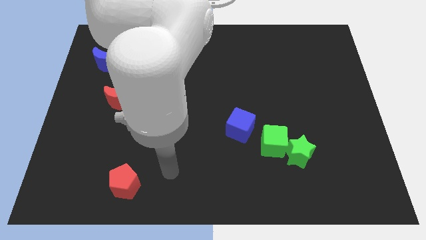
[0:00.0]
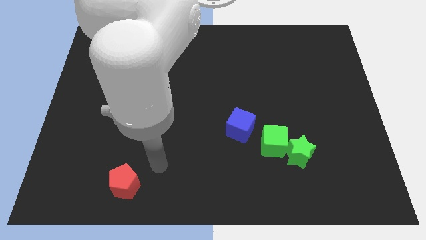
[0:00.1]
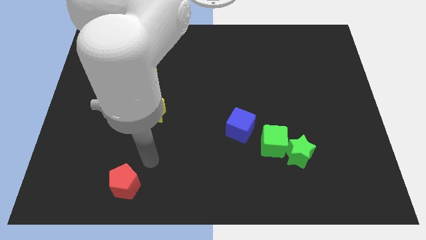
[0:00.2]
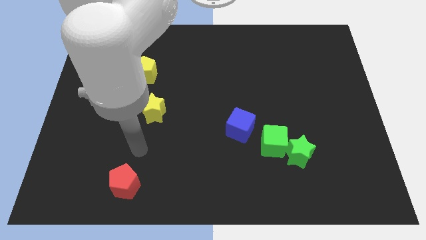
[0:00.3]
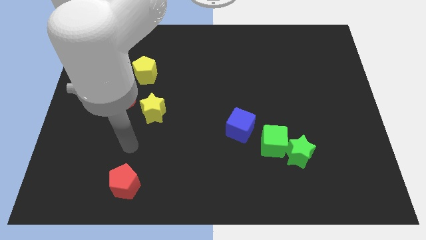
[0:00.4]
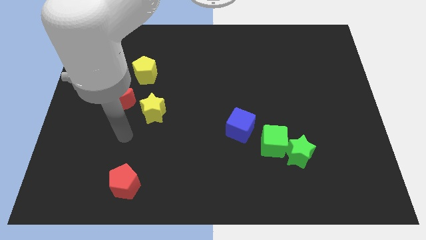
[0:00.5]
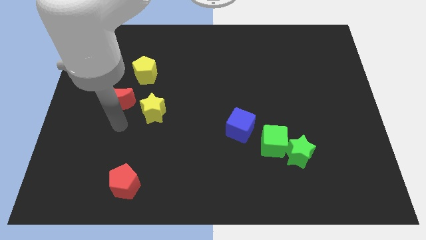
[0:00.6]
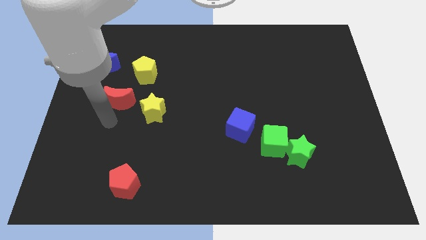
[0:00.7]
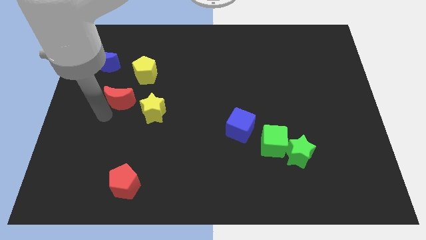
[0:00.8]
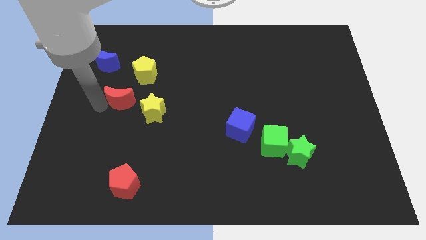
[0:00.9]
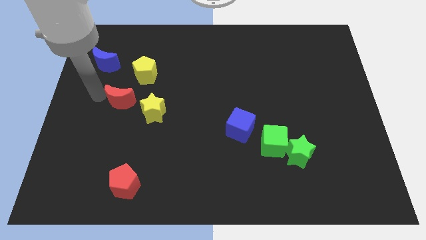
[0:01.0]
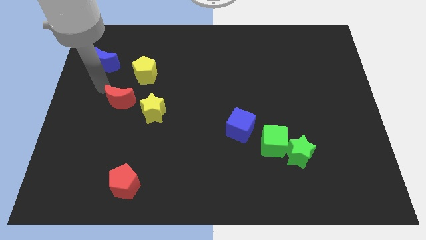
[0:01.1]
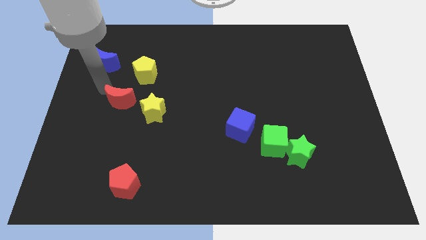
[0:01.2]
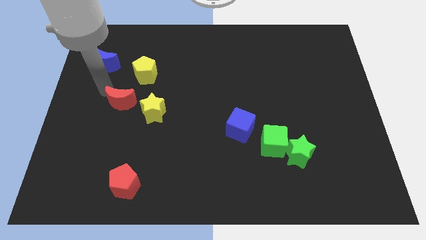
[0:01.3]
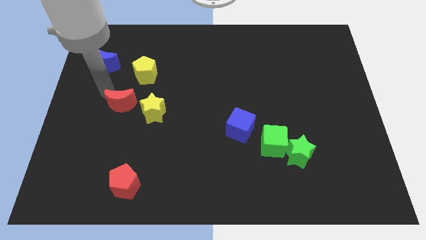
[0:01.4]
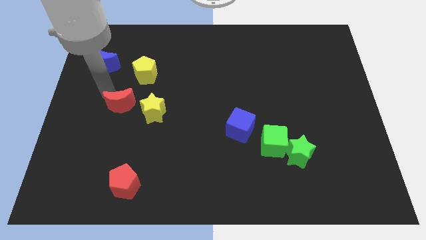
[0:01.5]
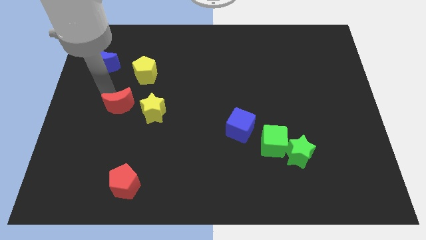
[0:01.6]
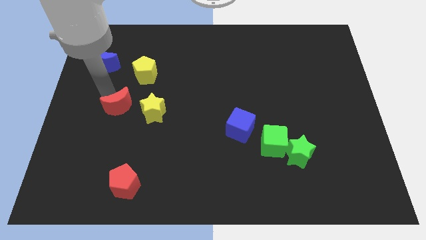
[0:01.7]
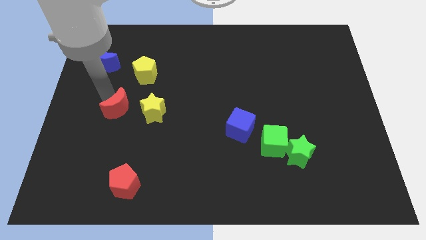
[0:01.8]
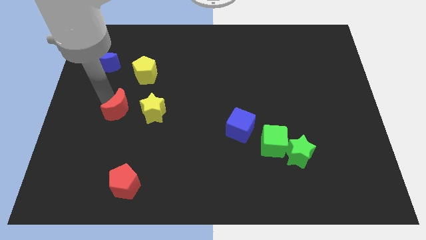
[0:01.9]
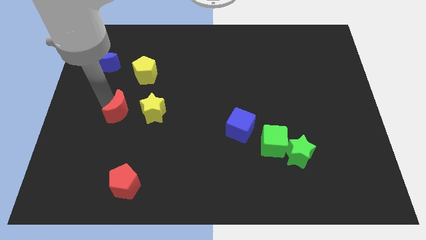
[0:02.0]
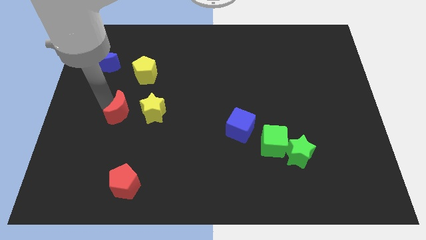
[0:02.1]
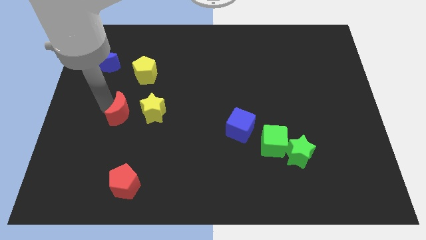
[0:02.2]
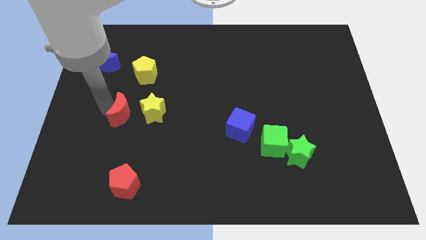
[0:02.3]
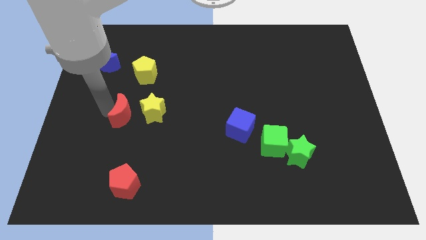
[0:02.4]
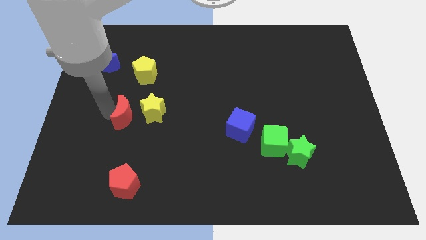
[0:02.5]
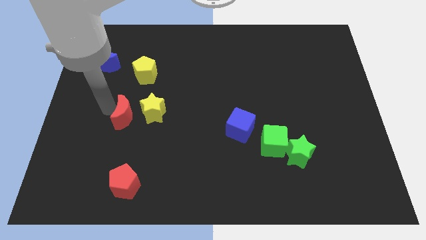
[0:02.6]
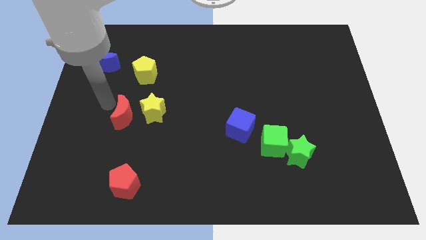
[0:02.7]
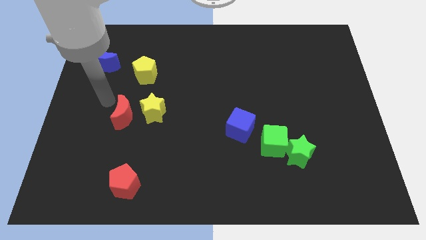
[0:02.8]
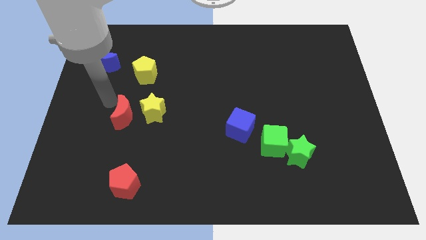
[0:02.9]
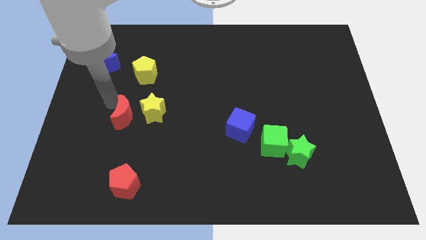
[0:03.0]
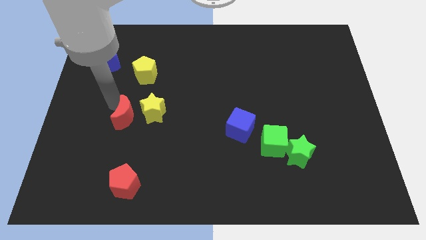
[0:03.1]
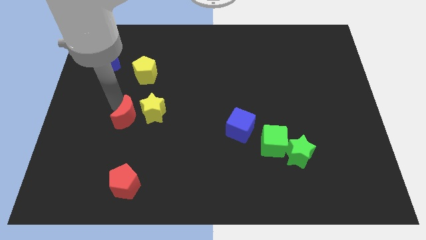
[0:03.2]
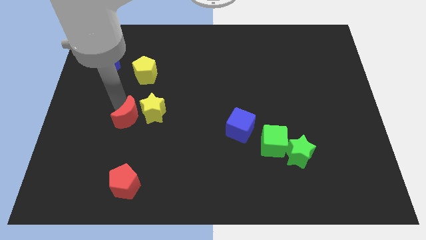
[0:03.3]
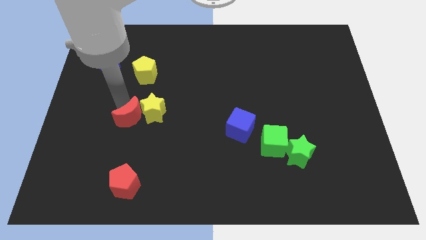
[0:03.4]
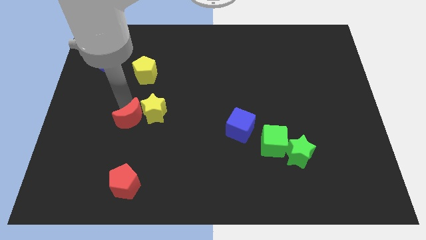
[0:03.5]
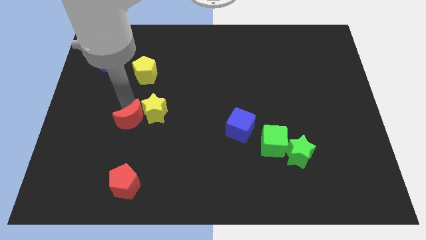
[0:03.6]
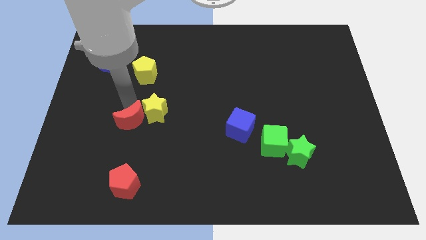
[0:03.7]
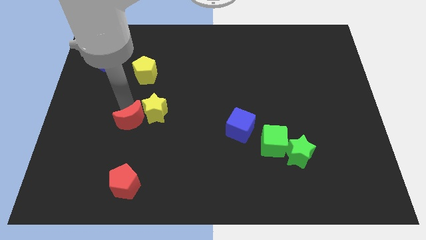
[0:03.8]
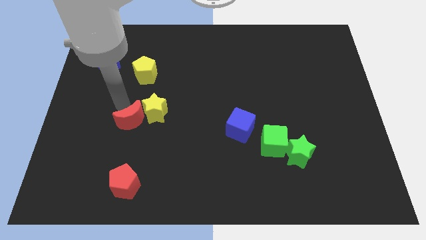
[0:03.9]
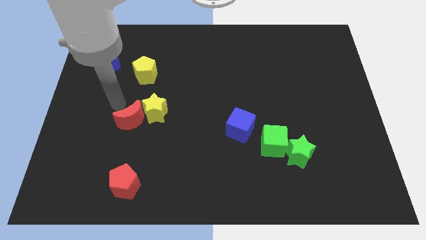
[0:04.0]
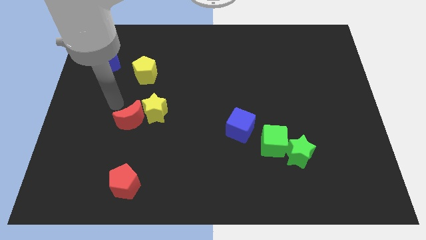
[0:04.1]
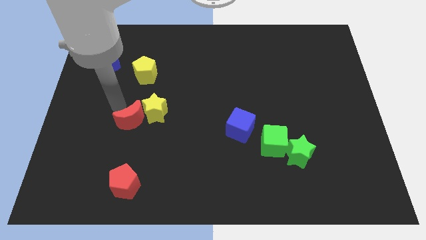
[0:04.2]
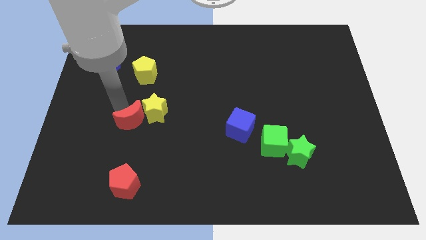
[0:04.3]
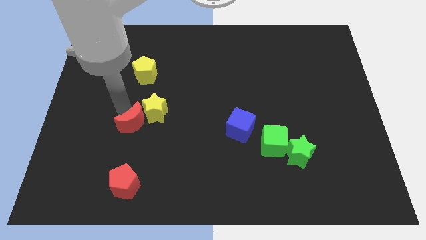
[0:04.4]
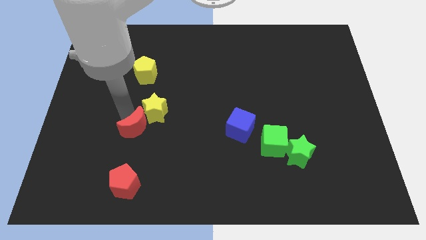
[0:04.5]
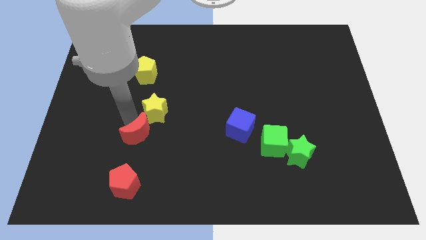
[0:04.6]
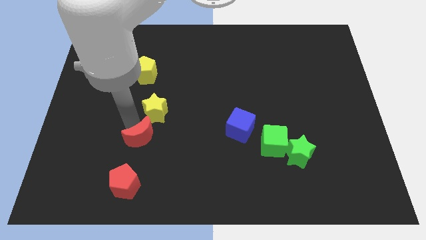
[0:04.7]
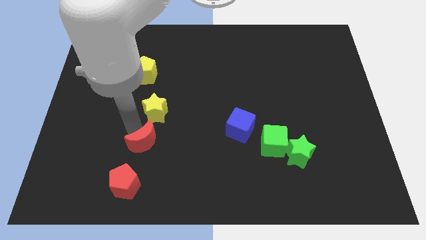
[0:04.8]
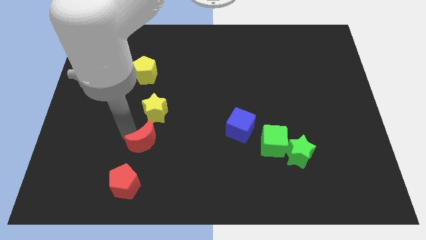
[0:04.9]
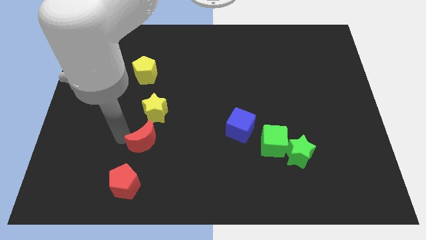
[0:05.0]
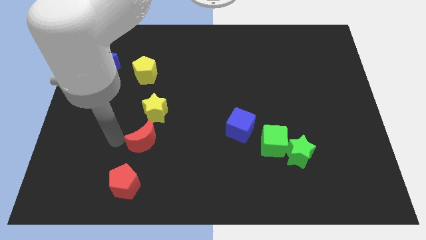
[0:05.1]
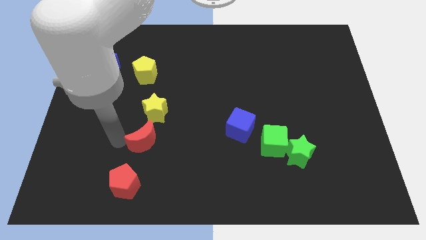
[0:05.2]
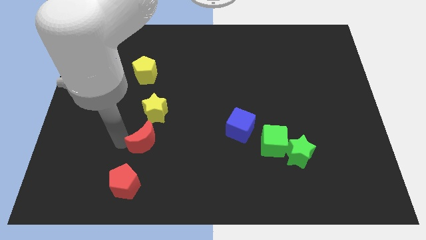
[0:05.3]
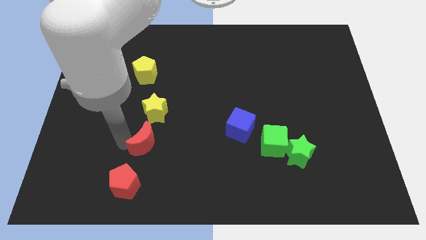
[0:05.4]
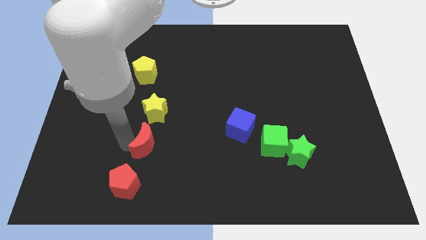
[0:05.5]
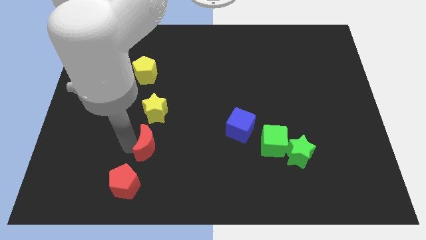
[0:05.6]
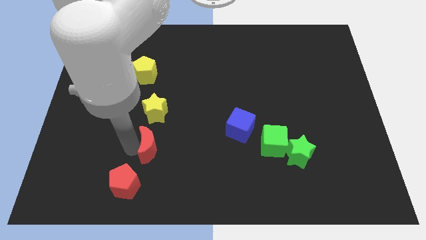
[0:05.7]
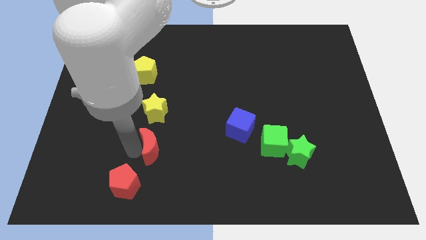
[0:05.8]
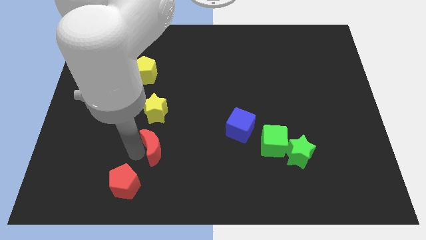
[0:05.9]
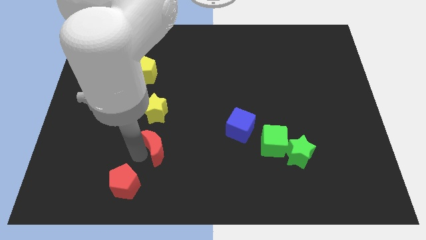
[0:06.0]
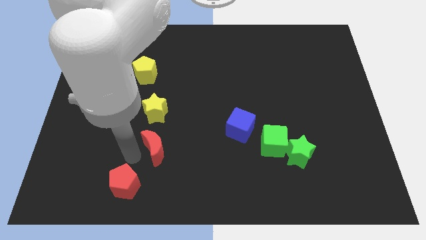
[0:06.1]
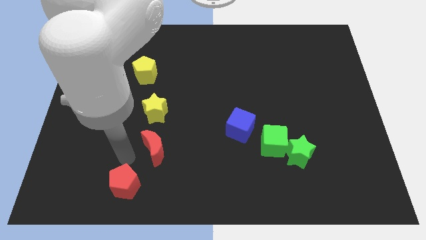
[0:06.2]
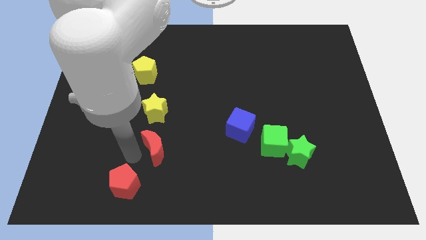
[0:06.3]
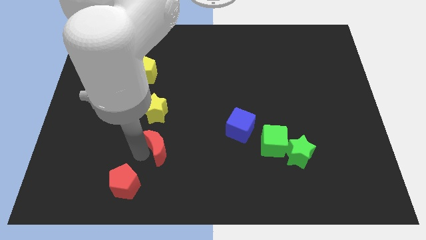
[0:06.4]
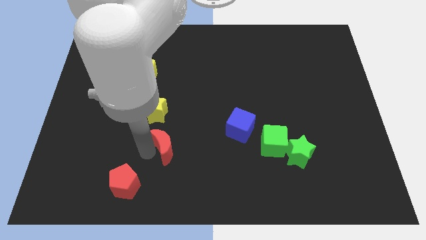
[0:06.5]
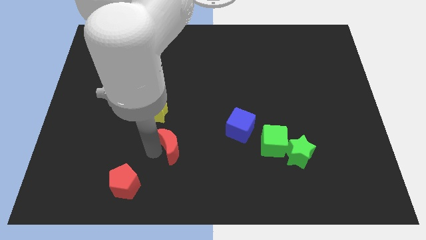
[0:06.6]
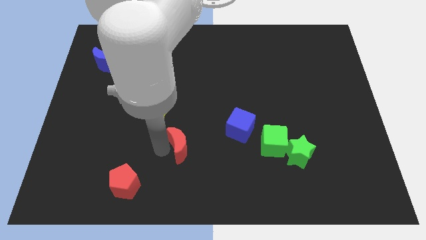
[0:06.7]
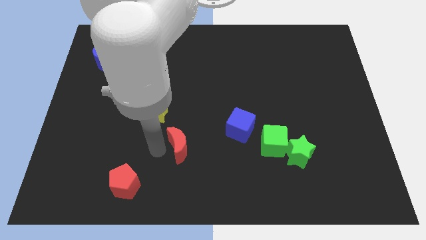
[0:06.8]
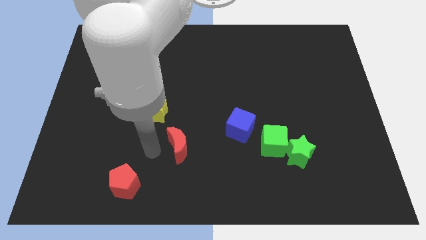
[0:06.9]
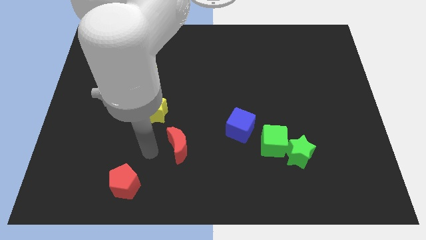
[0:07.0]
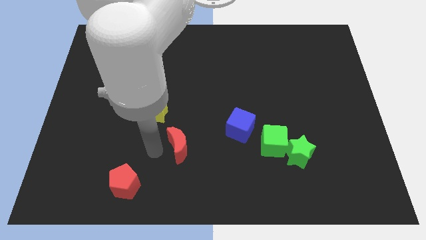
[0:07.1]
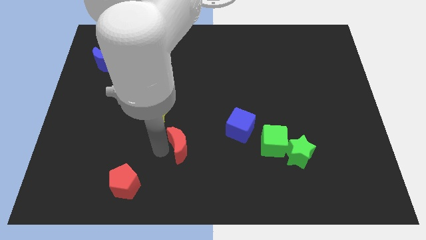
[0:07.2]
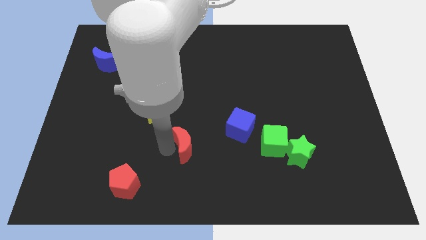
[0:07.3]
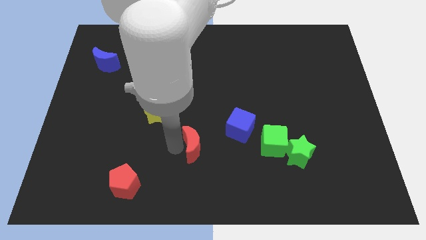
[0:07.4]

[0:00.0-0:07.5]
put the red moon diagonally down and to the left of the blue cube

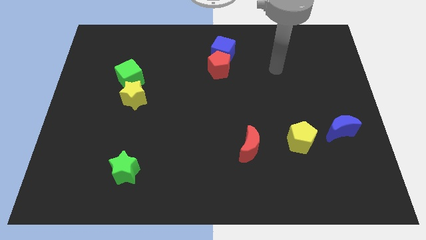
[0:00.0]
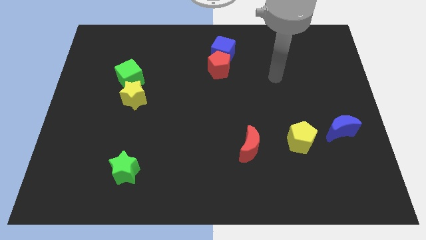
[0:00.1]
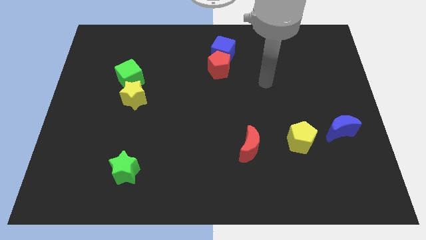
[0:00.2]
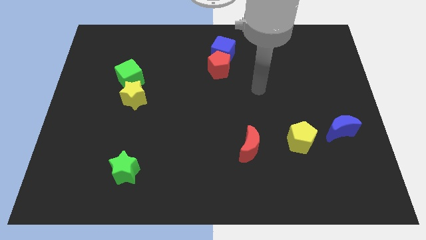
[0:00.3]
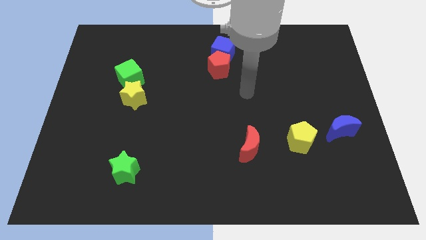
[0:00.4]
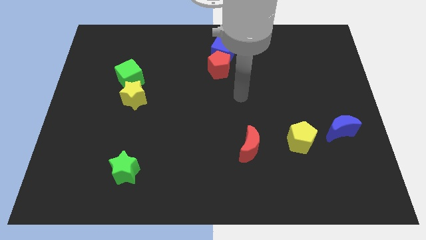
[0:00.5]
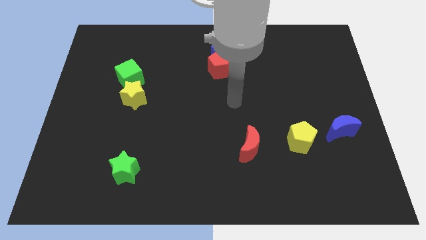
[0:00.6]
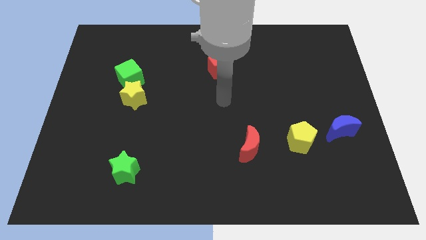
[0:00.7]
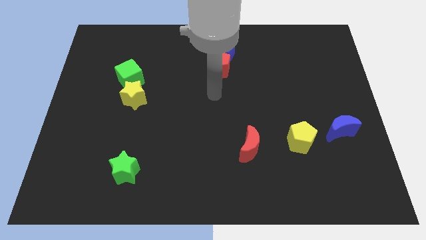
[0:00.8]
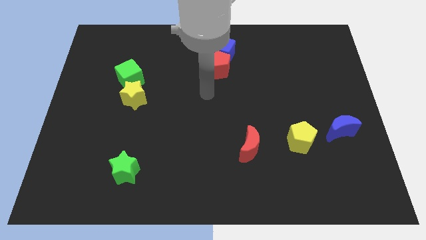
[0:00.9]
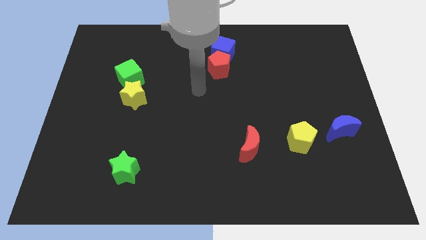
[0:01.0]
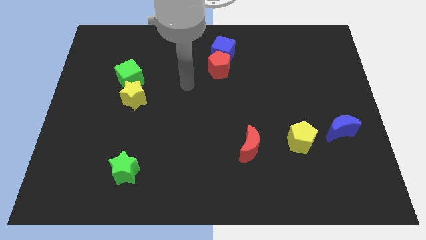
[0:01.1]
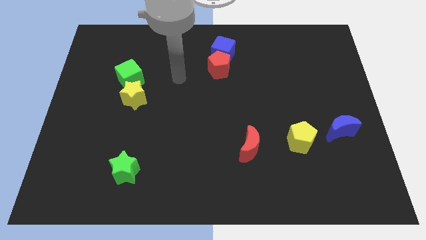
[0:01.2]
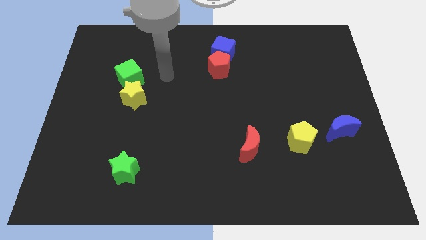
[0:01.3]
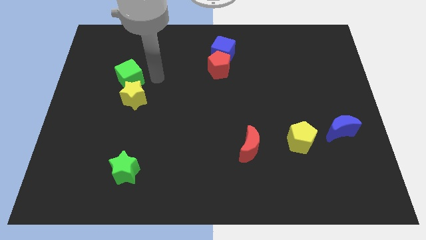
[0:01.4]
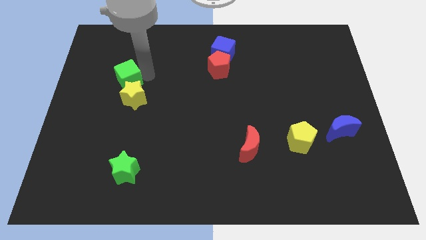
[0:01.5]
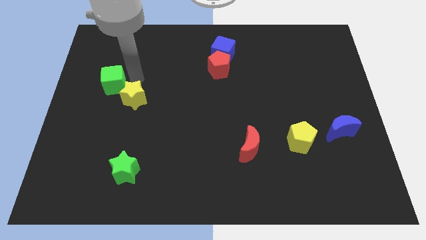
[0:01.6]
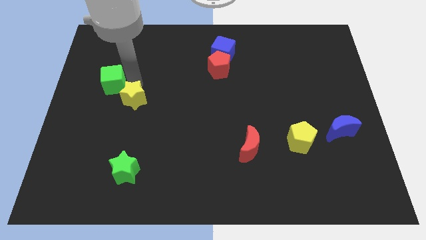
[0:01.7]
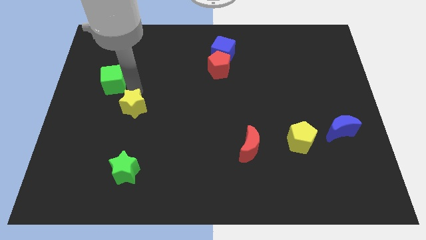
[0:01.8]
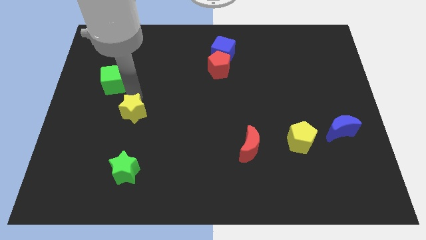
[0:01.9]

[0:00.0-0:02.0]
move the yellow star to the top side of the green star
